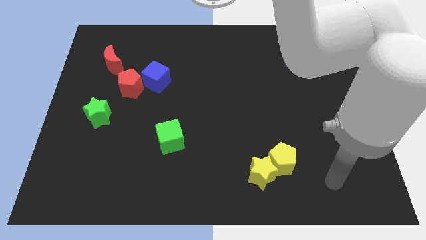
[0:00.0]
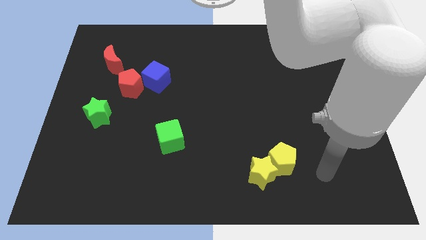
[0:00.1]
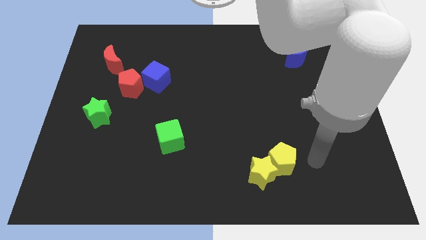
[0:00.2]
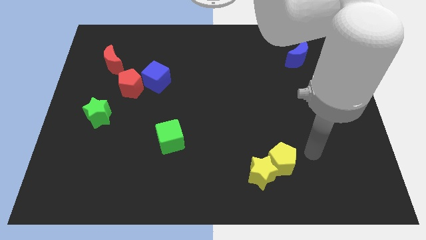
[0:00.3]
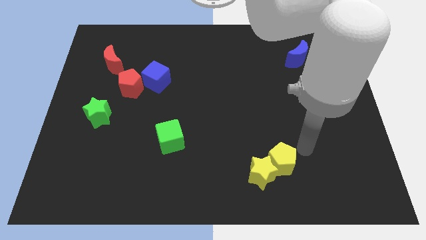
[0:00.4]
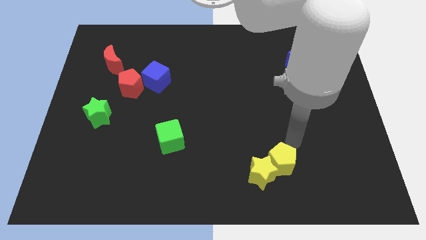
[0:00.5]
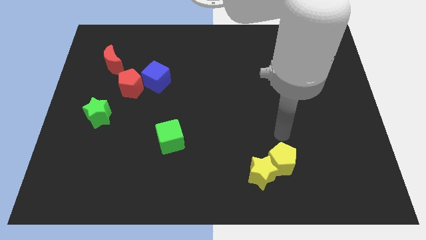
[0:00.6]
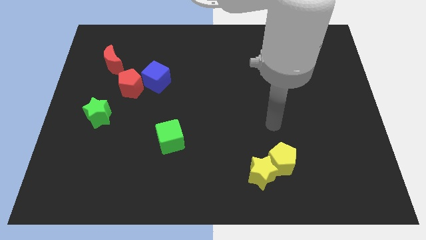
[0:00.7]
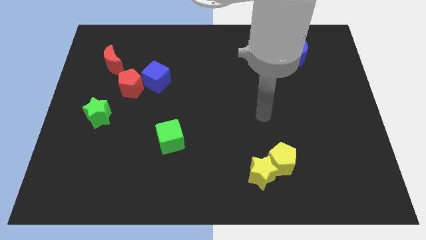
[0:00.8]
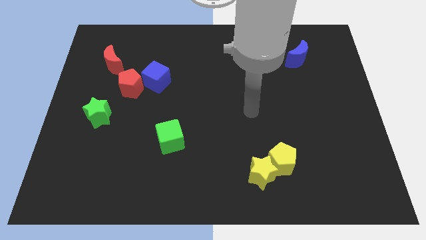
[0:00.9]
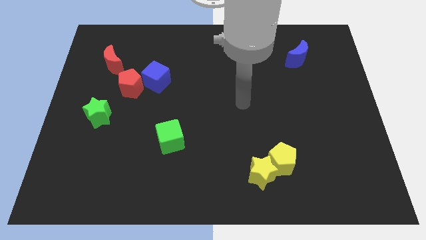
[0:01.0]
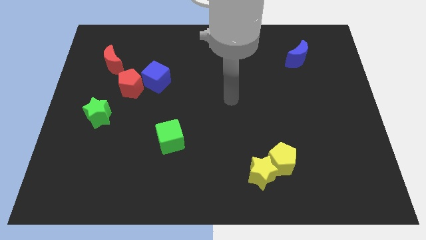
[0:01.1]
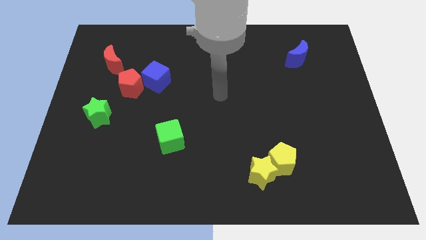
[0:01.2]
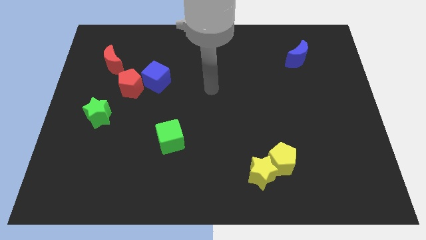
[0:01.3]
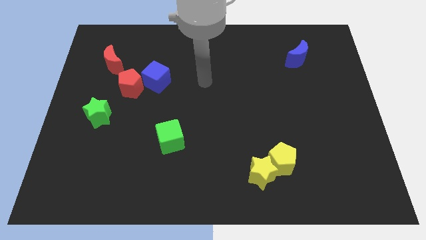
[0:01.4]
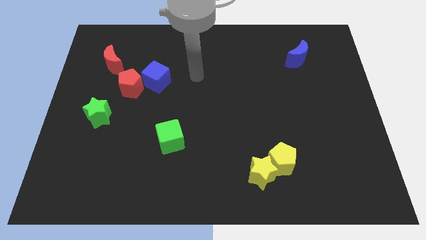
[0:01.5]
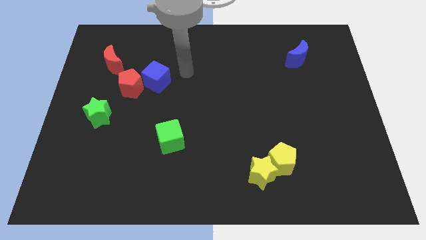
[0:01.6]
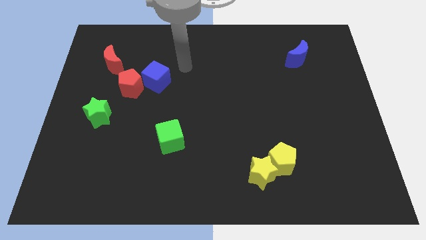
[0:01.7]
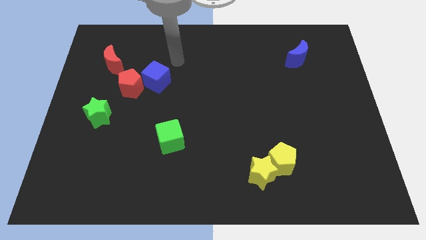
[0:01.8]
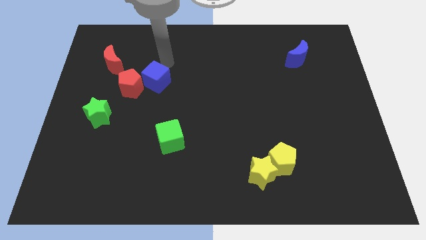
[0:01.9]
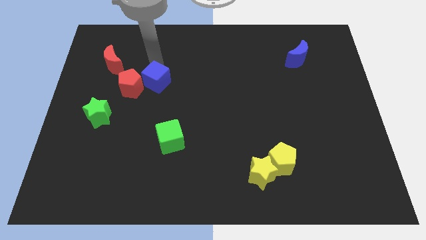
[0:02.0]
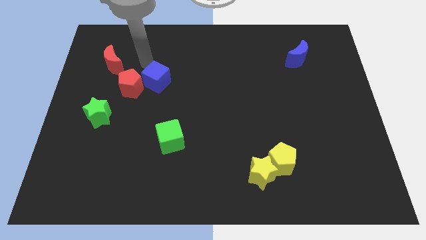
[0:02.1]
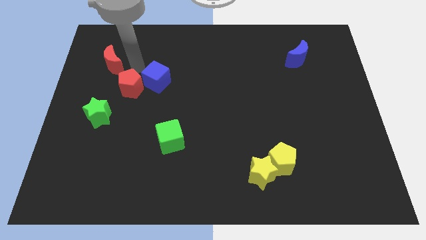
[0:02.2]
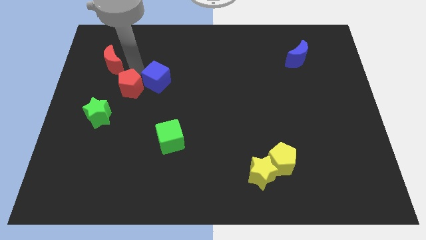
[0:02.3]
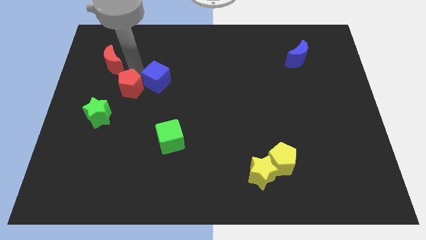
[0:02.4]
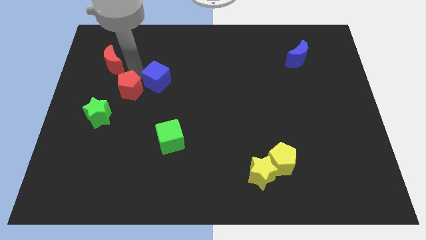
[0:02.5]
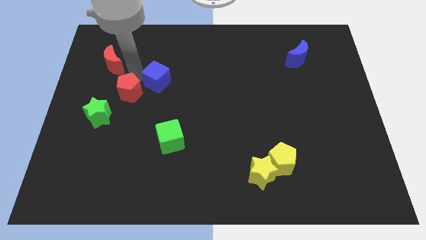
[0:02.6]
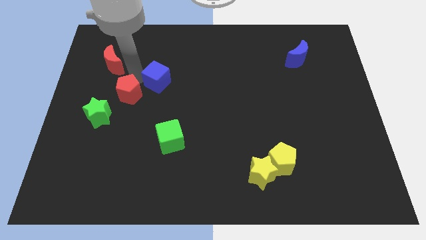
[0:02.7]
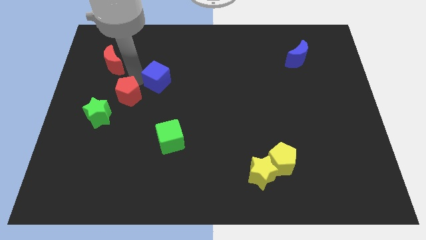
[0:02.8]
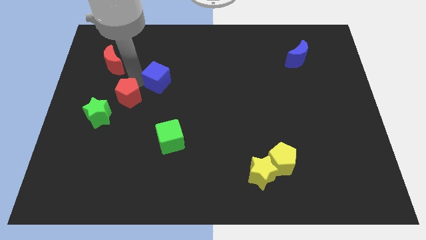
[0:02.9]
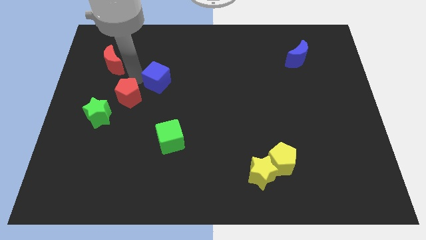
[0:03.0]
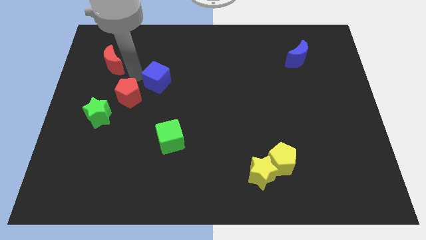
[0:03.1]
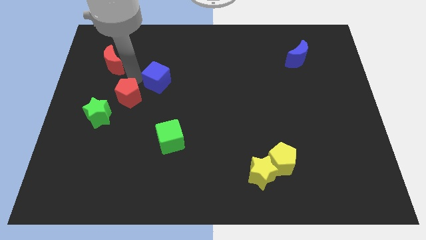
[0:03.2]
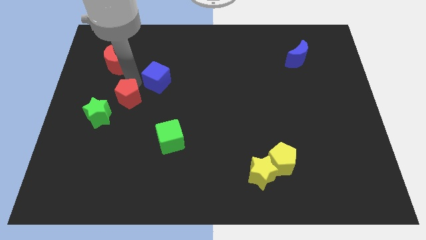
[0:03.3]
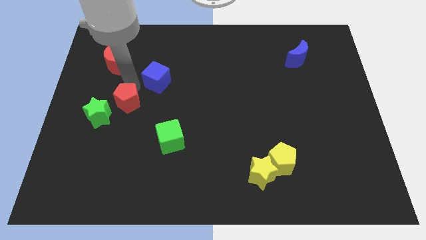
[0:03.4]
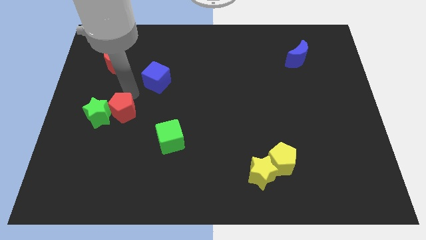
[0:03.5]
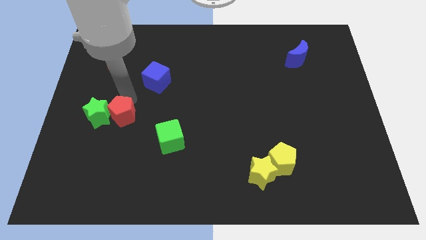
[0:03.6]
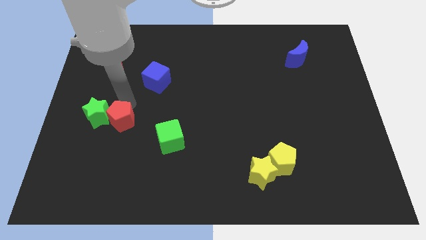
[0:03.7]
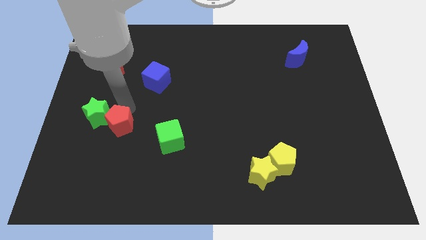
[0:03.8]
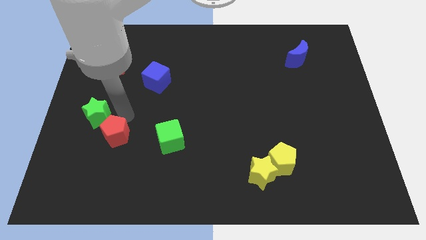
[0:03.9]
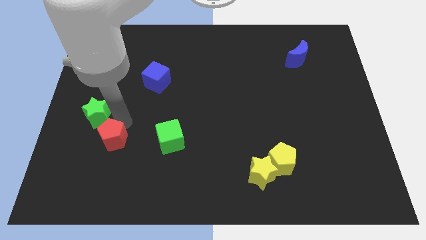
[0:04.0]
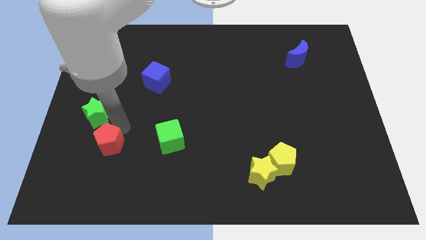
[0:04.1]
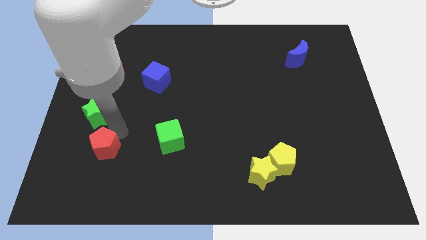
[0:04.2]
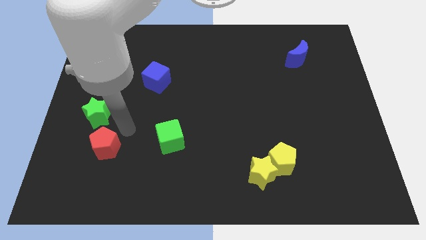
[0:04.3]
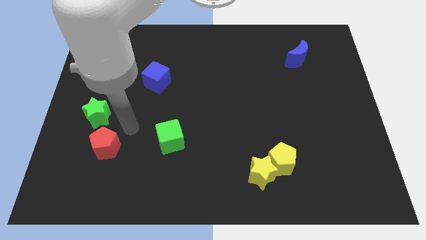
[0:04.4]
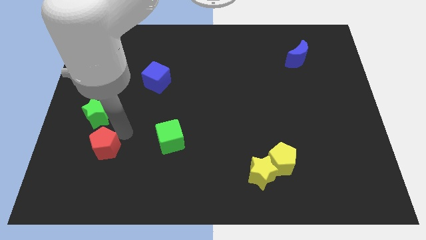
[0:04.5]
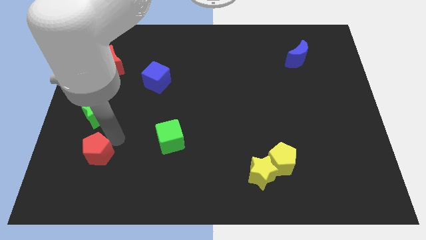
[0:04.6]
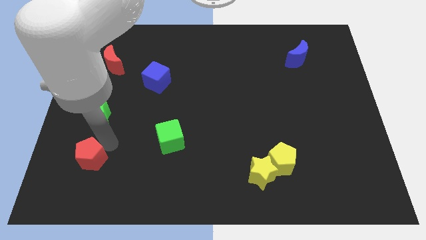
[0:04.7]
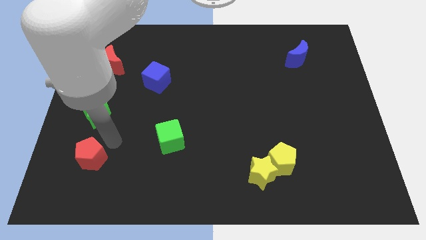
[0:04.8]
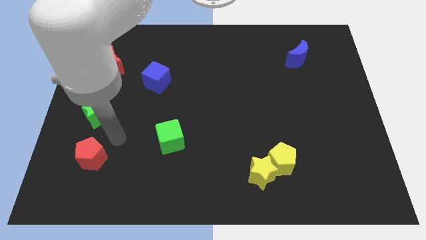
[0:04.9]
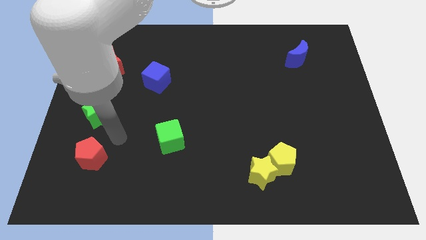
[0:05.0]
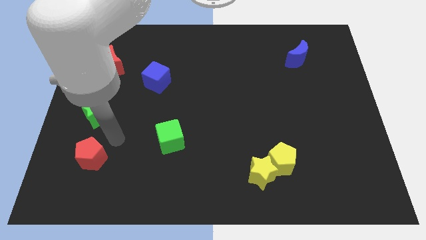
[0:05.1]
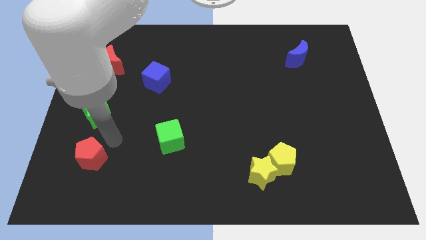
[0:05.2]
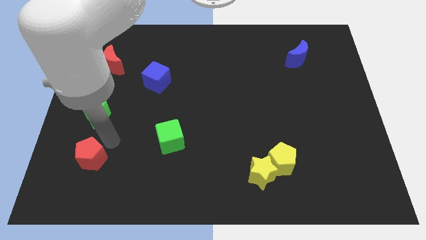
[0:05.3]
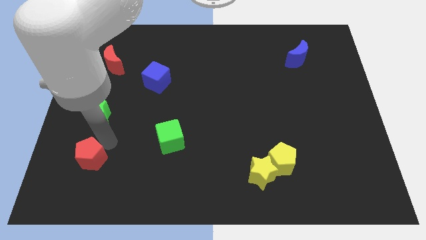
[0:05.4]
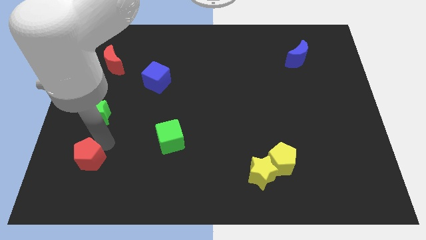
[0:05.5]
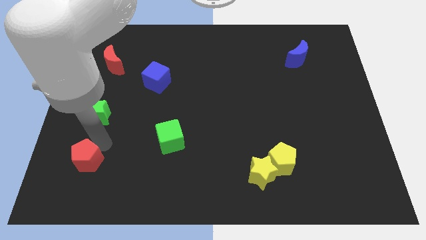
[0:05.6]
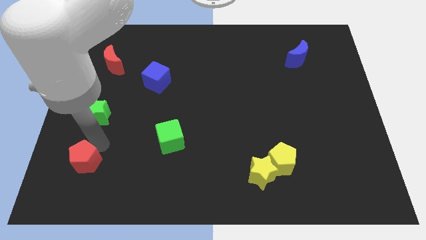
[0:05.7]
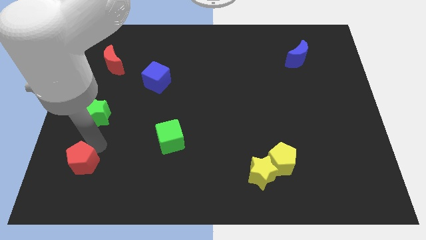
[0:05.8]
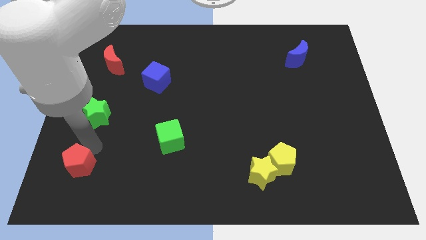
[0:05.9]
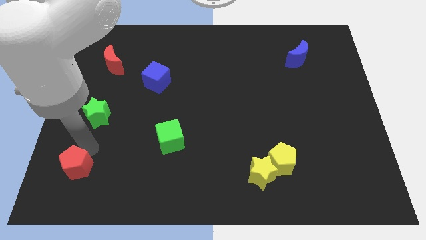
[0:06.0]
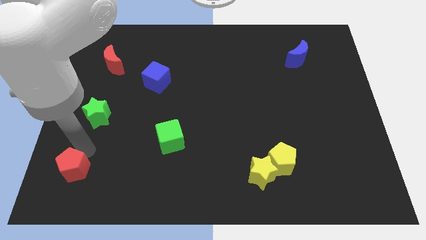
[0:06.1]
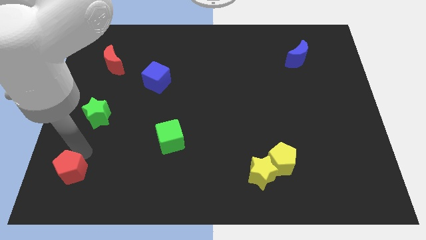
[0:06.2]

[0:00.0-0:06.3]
push the red pentagon to the lower left corner

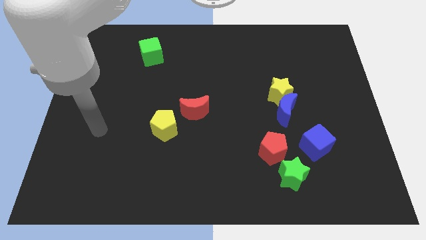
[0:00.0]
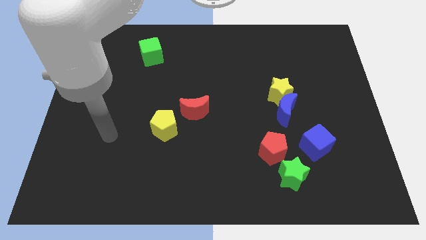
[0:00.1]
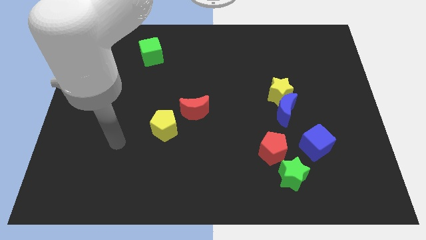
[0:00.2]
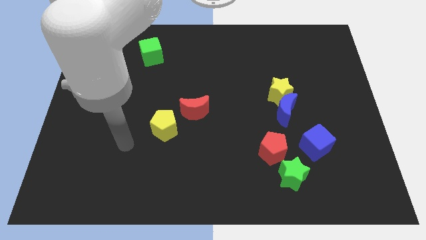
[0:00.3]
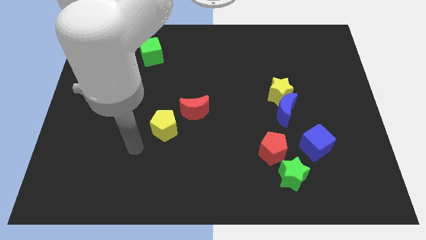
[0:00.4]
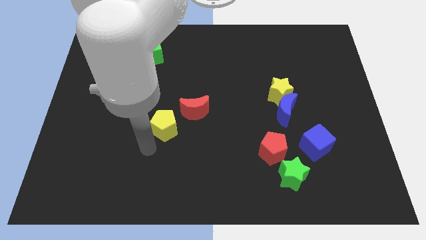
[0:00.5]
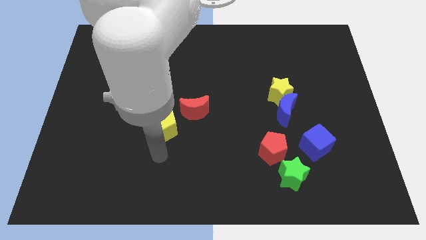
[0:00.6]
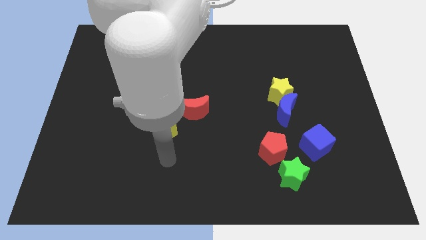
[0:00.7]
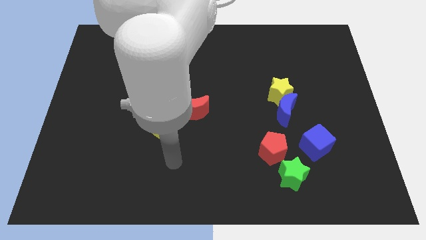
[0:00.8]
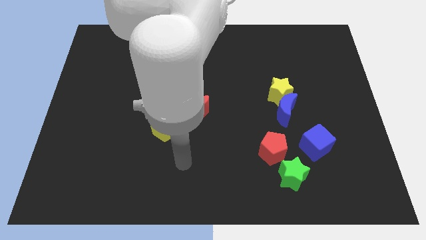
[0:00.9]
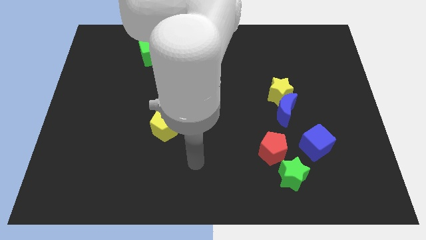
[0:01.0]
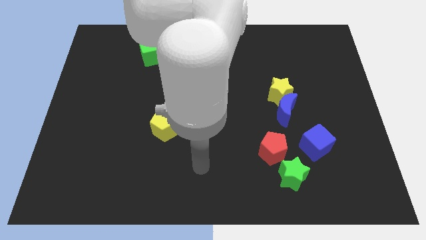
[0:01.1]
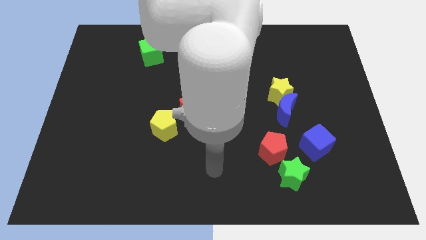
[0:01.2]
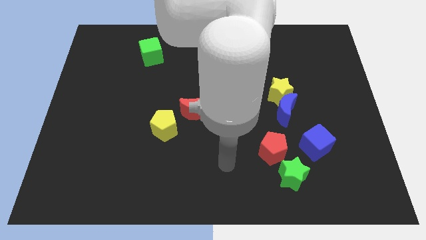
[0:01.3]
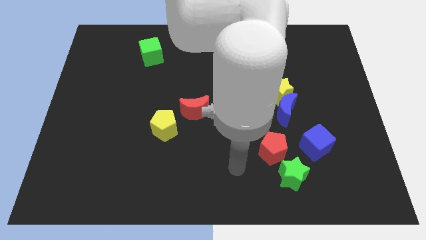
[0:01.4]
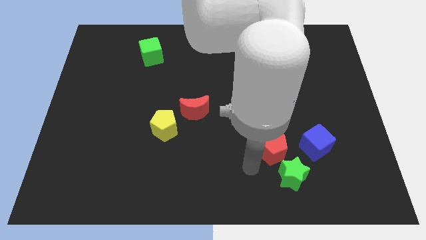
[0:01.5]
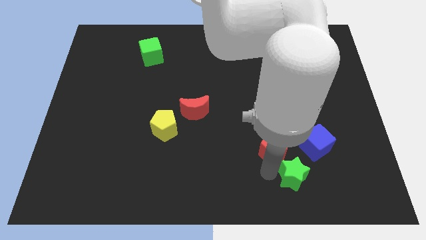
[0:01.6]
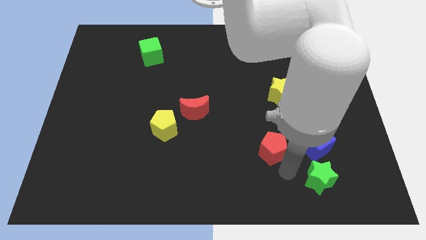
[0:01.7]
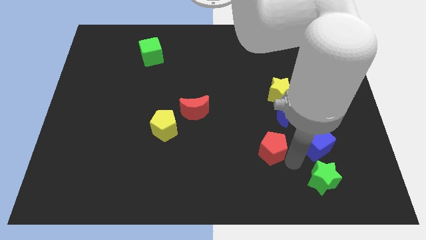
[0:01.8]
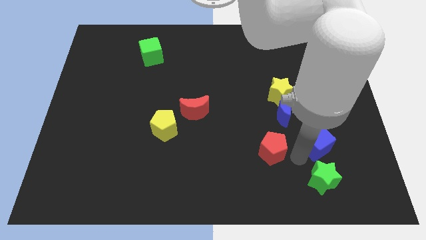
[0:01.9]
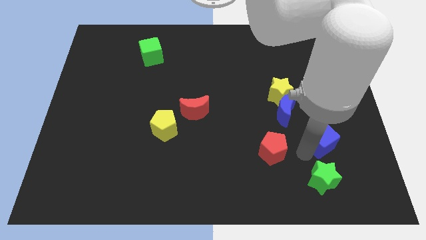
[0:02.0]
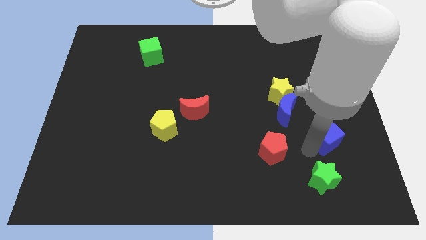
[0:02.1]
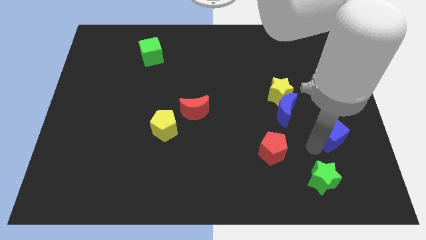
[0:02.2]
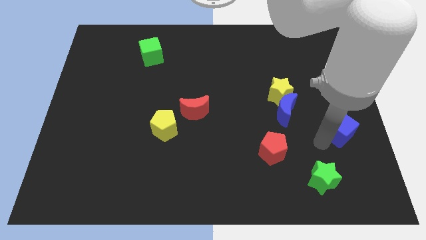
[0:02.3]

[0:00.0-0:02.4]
push the blue cube to the right side
